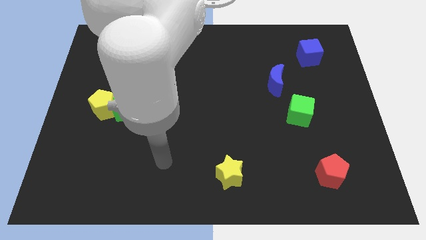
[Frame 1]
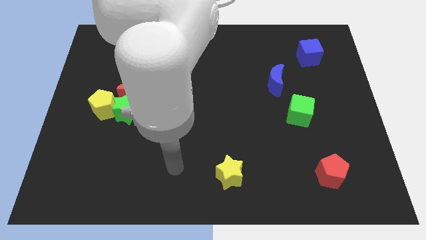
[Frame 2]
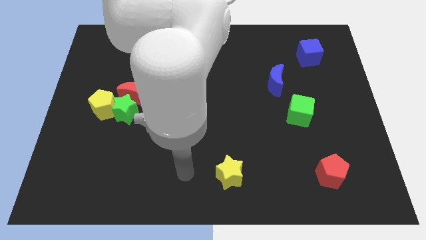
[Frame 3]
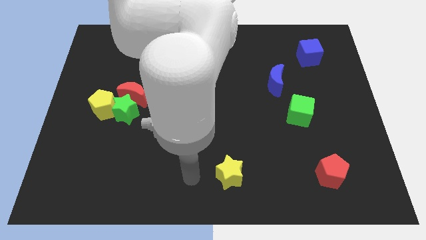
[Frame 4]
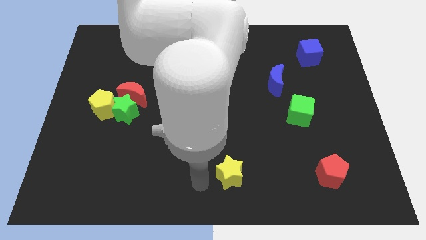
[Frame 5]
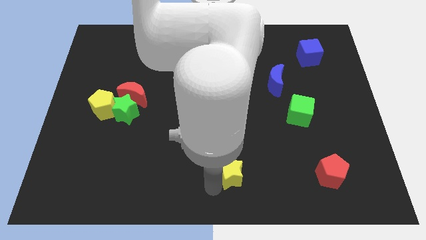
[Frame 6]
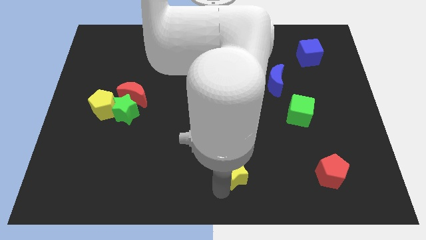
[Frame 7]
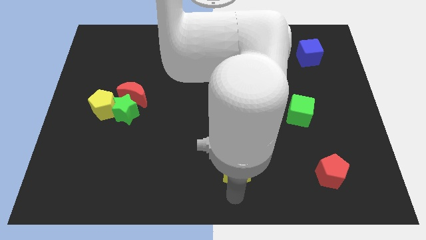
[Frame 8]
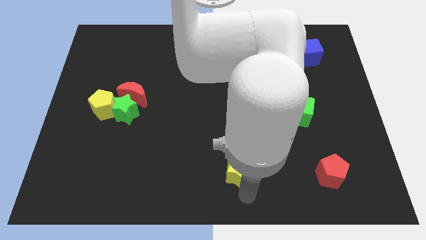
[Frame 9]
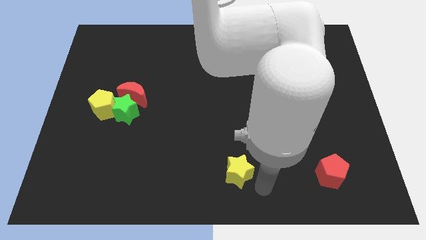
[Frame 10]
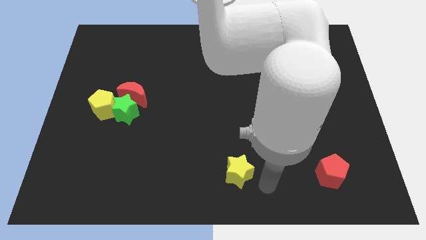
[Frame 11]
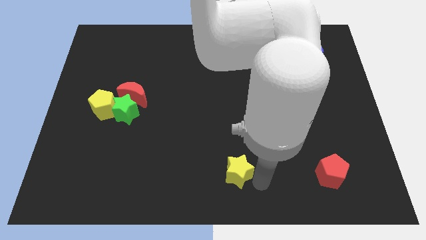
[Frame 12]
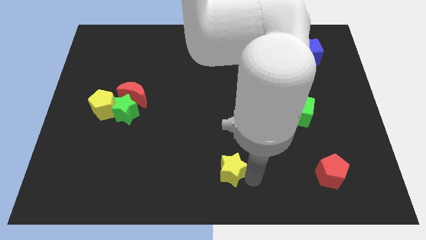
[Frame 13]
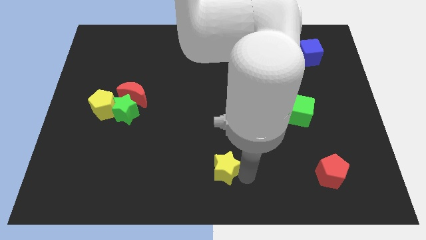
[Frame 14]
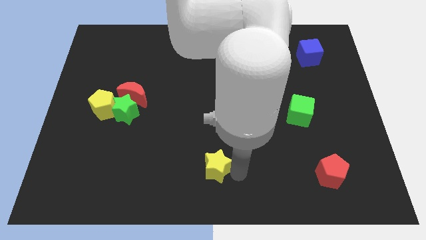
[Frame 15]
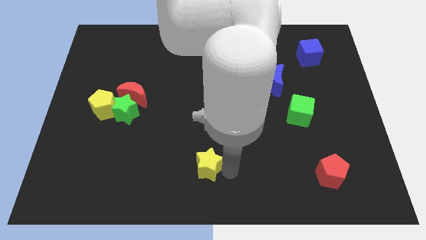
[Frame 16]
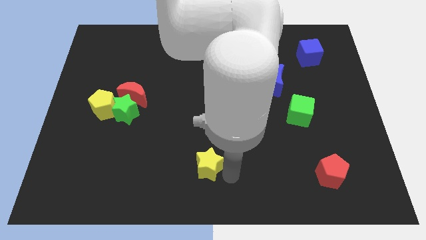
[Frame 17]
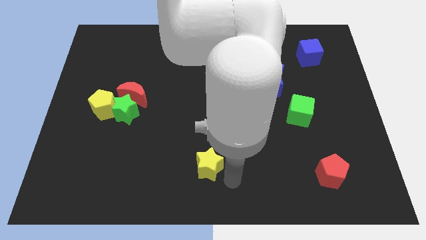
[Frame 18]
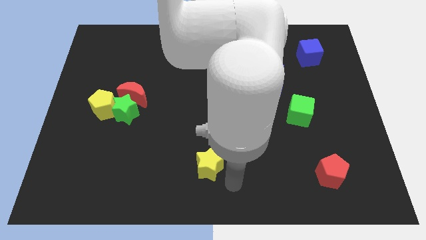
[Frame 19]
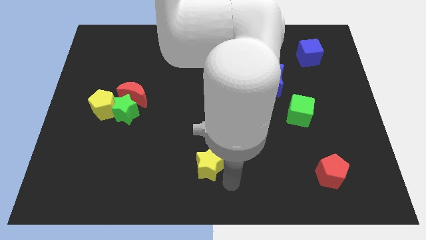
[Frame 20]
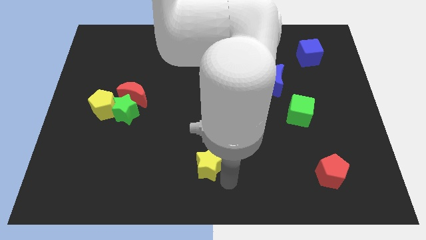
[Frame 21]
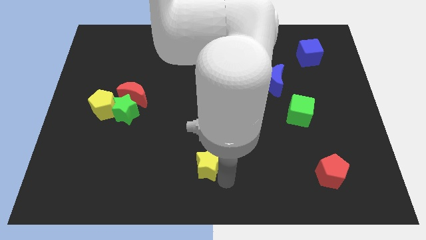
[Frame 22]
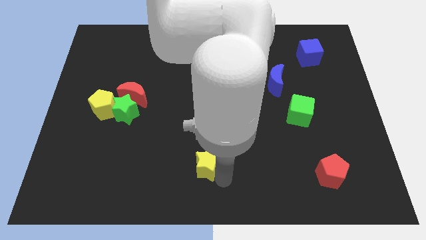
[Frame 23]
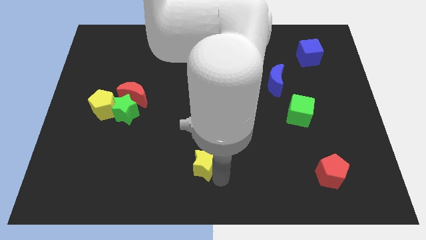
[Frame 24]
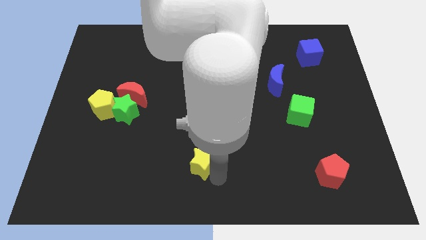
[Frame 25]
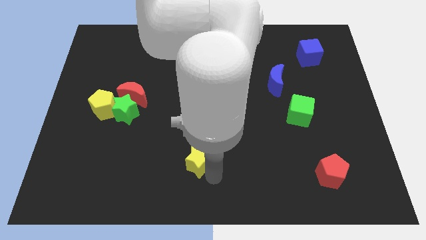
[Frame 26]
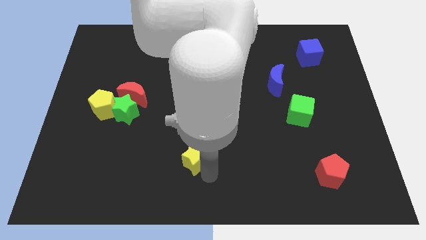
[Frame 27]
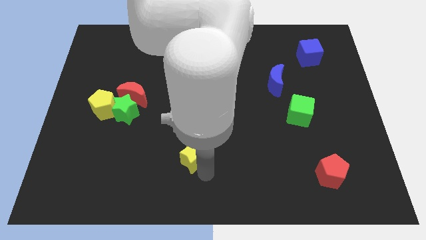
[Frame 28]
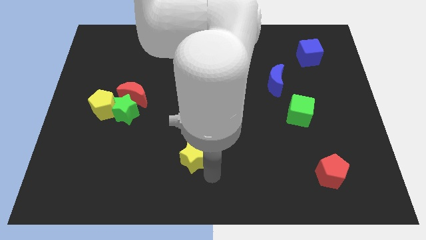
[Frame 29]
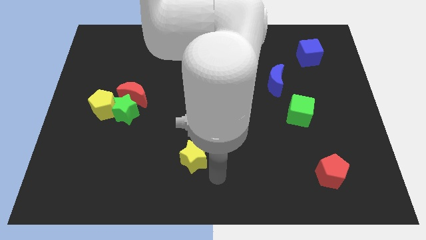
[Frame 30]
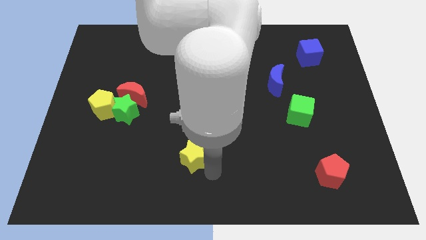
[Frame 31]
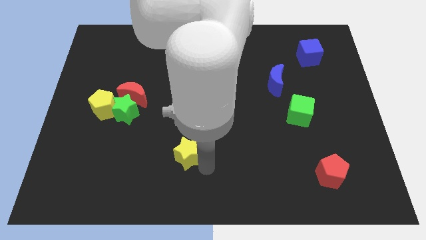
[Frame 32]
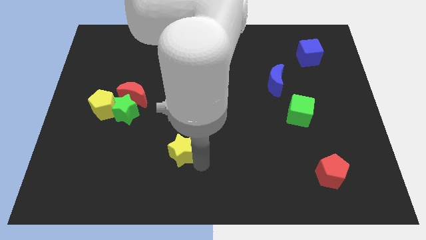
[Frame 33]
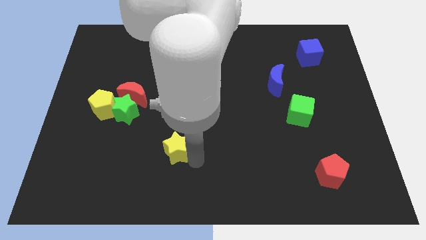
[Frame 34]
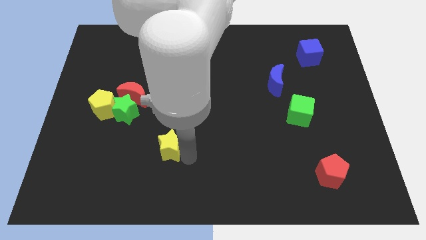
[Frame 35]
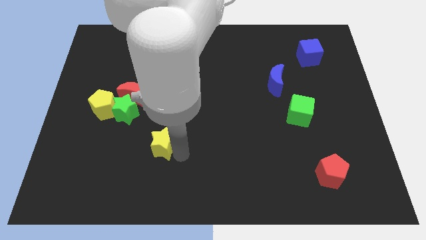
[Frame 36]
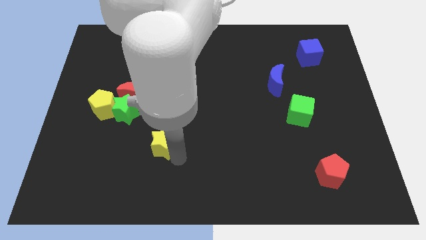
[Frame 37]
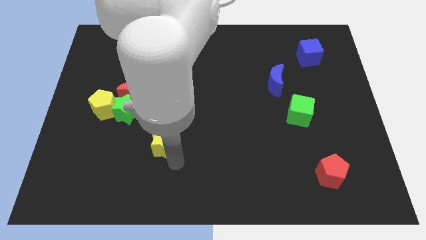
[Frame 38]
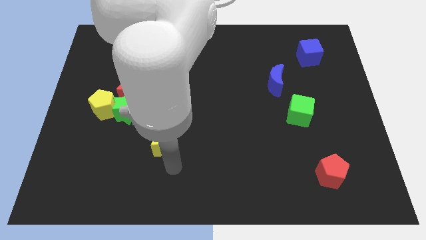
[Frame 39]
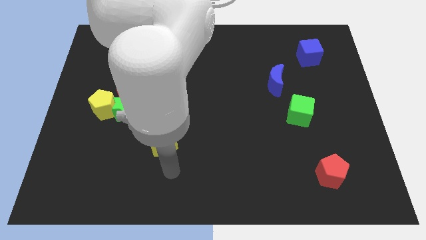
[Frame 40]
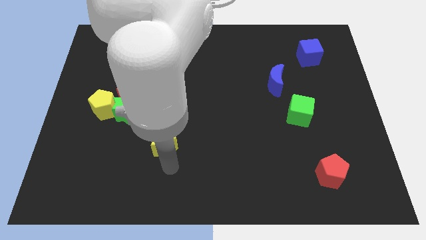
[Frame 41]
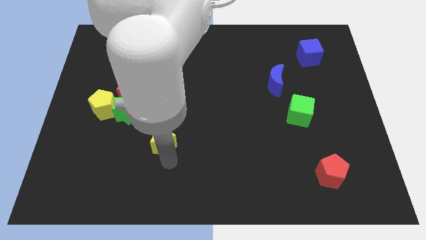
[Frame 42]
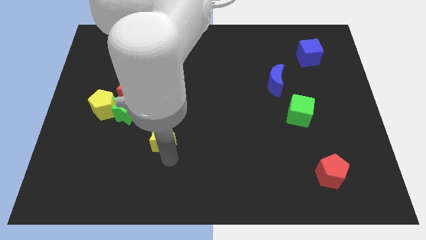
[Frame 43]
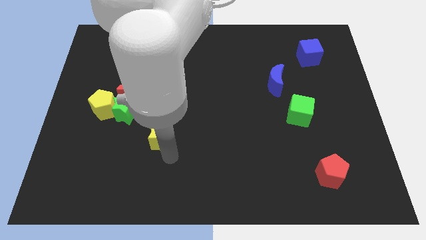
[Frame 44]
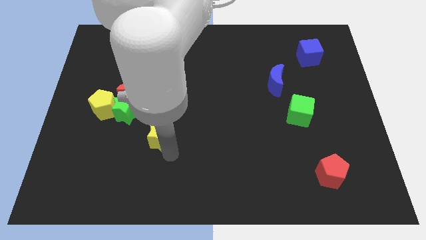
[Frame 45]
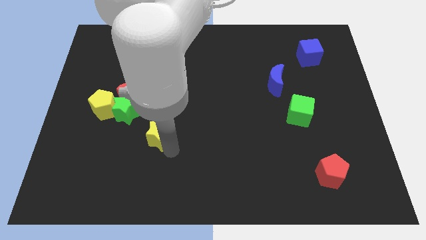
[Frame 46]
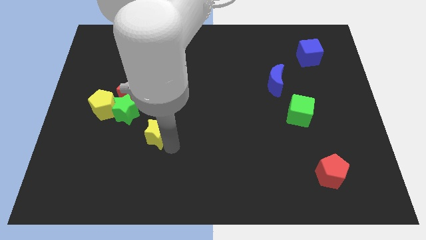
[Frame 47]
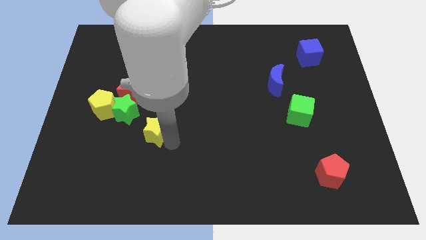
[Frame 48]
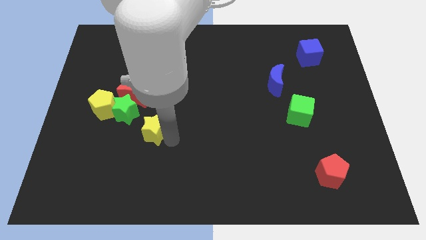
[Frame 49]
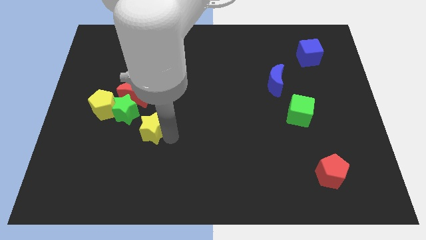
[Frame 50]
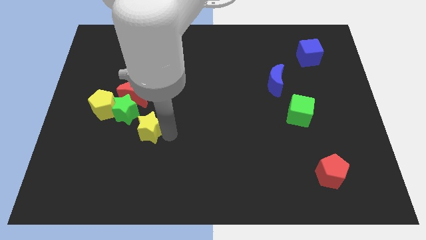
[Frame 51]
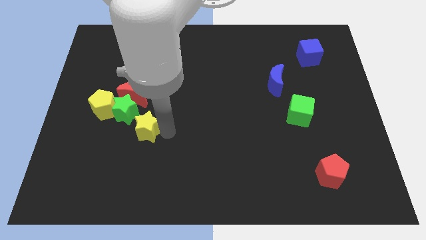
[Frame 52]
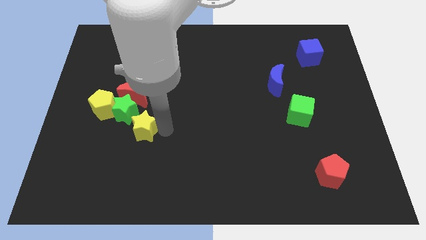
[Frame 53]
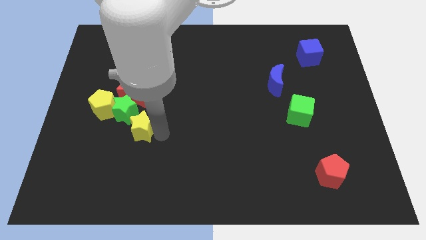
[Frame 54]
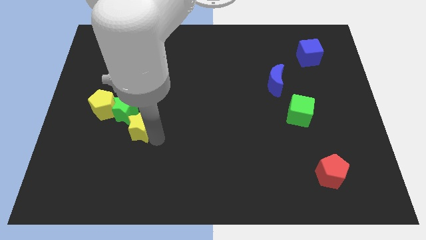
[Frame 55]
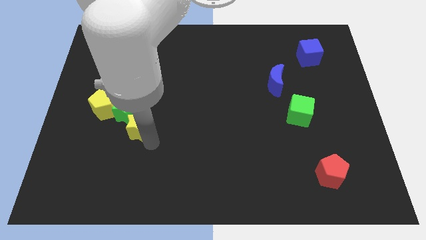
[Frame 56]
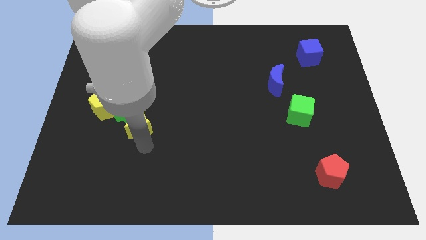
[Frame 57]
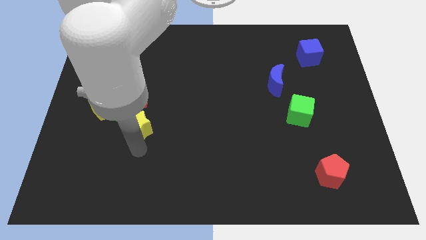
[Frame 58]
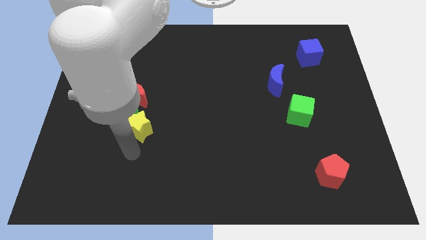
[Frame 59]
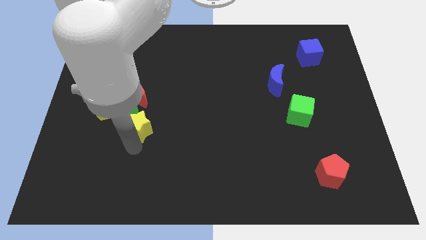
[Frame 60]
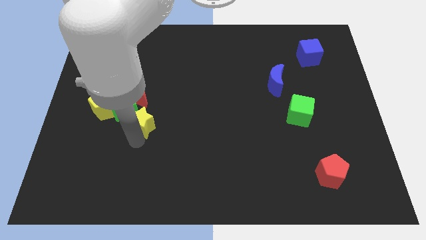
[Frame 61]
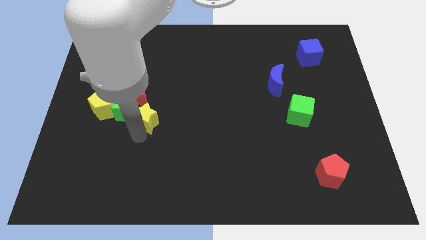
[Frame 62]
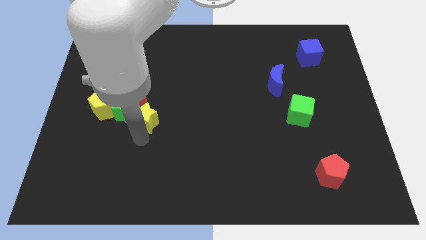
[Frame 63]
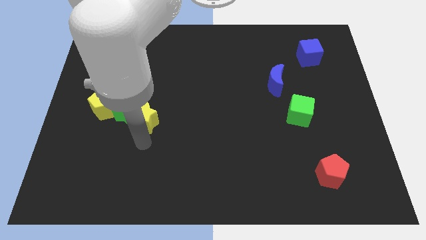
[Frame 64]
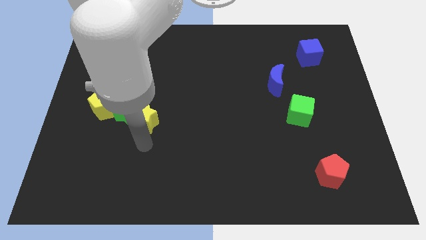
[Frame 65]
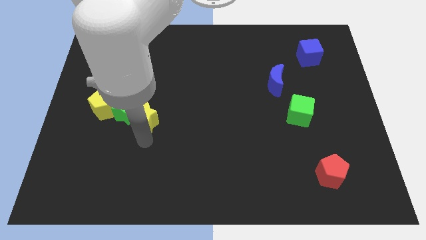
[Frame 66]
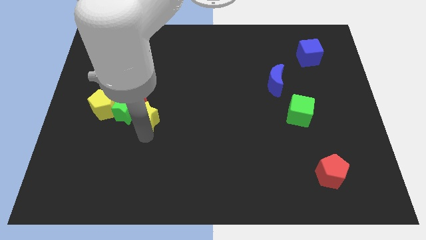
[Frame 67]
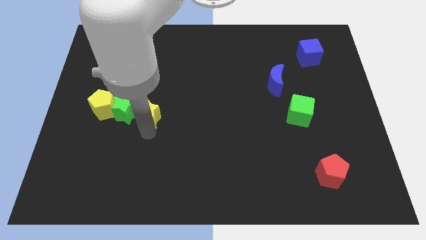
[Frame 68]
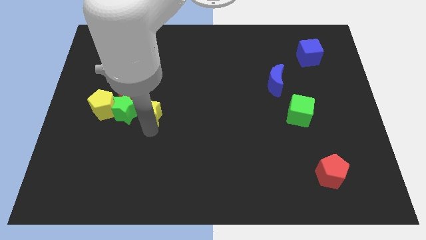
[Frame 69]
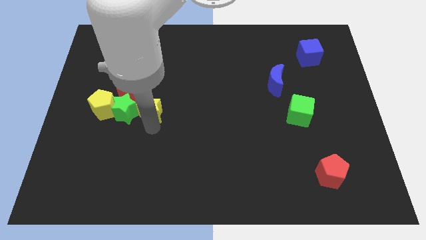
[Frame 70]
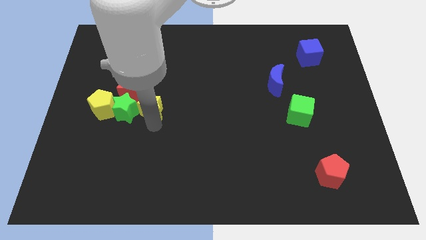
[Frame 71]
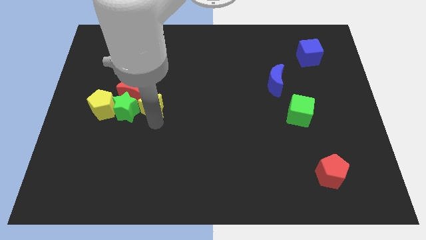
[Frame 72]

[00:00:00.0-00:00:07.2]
slide the yellow star close to the red moon

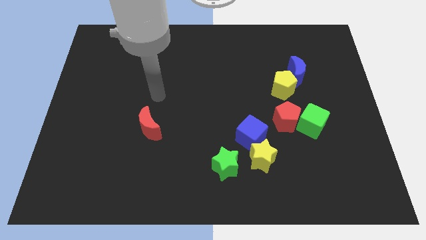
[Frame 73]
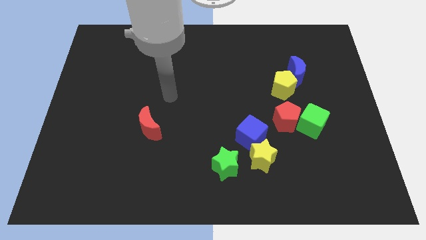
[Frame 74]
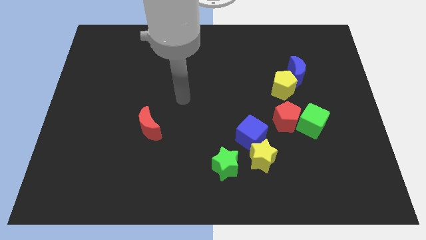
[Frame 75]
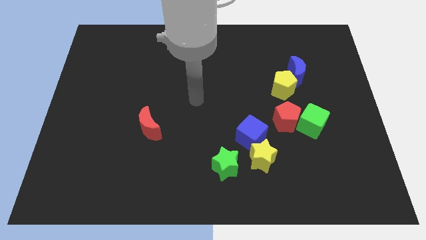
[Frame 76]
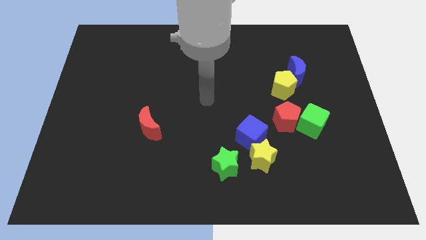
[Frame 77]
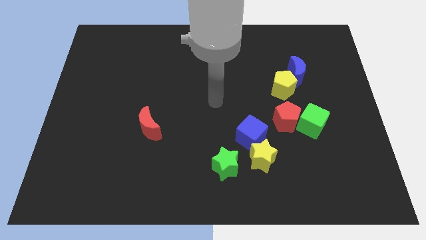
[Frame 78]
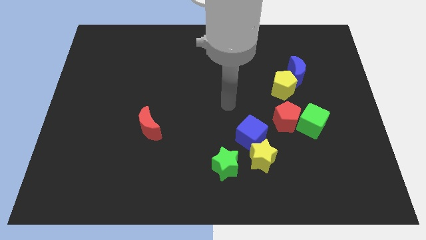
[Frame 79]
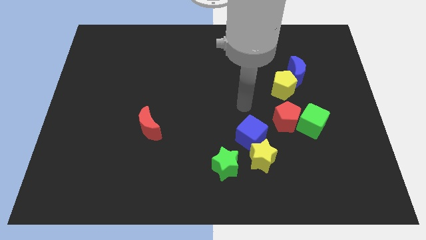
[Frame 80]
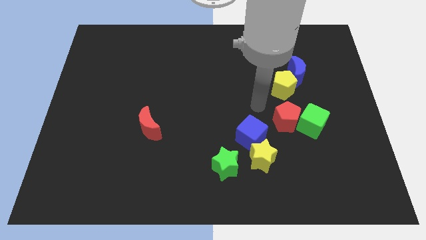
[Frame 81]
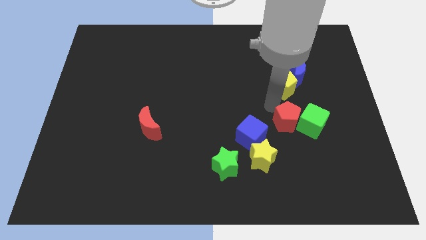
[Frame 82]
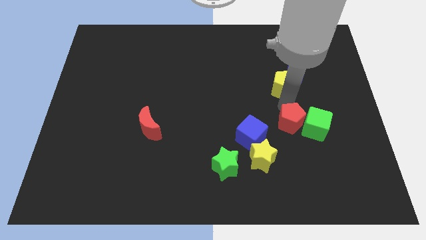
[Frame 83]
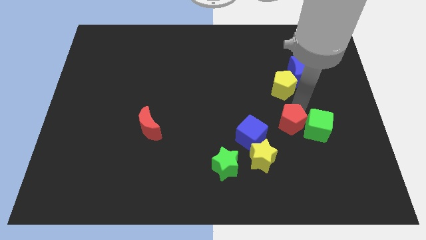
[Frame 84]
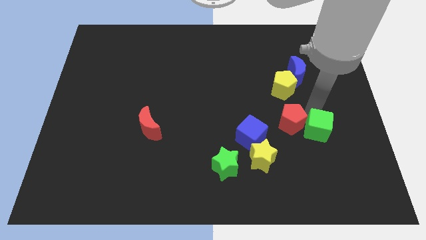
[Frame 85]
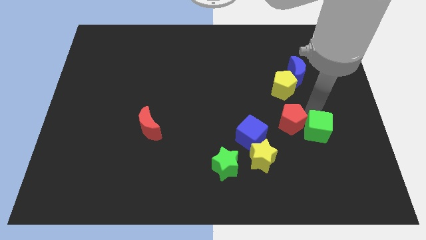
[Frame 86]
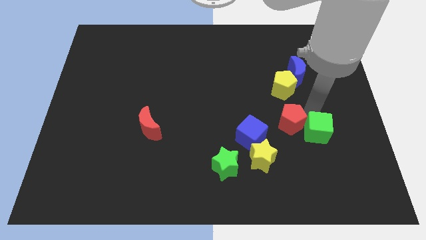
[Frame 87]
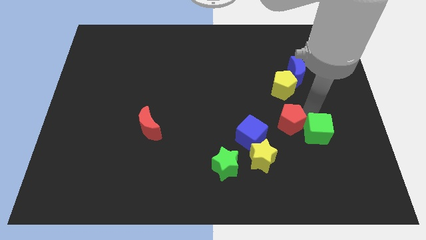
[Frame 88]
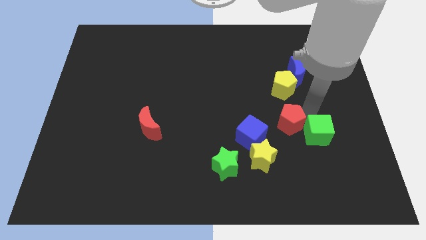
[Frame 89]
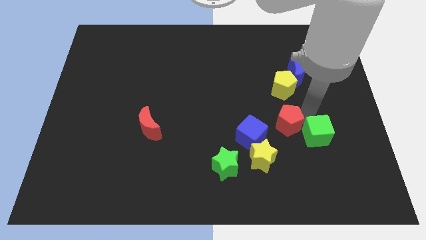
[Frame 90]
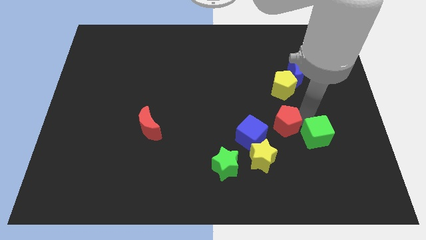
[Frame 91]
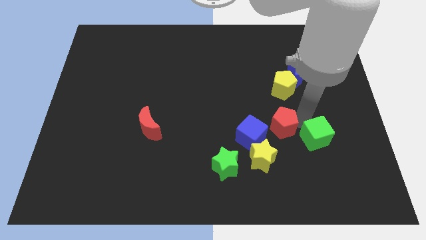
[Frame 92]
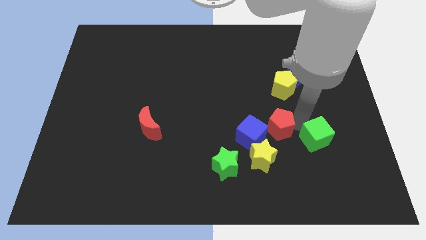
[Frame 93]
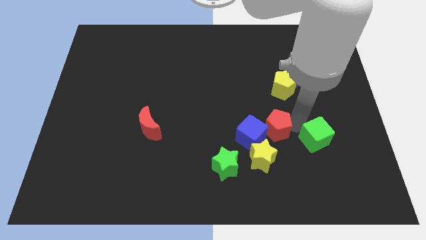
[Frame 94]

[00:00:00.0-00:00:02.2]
move the red pentagon towards the blue cube
